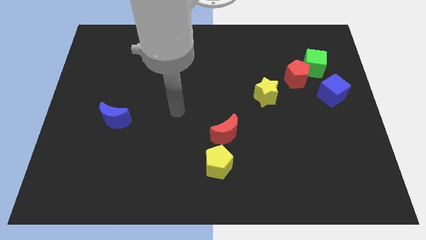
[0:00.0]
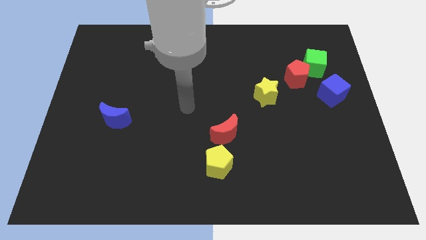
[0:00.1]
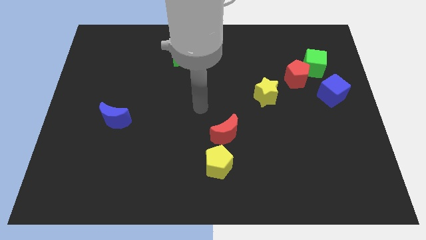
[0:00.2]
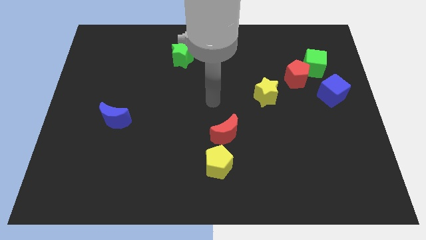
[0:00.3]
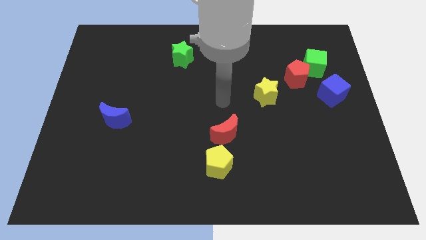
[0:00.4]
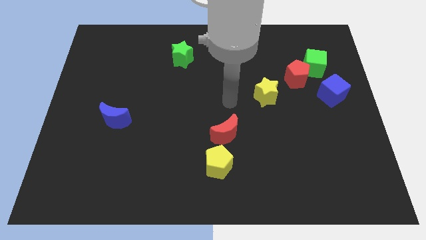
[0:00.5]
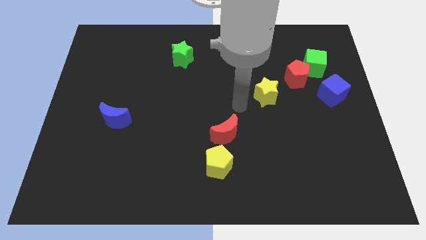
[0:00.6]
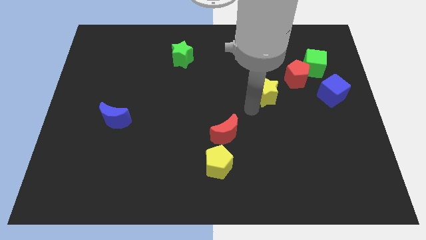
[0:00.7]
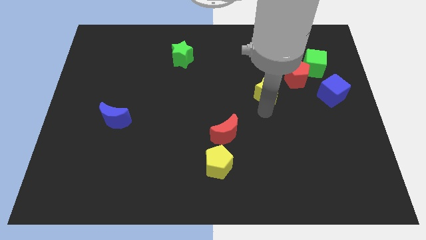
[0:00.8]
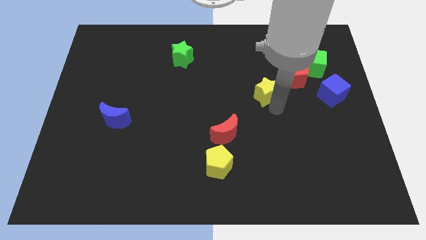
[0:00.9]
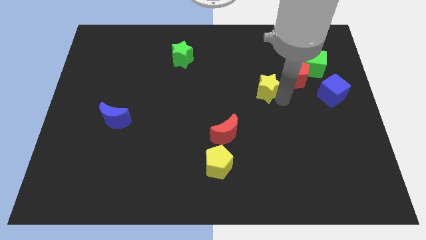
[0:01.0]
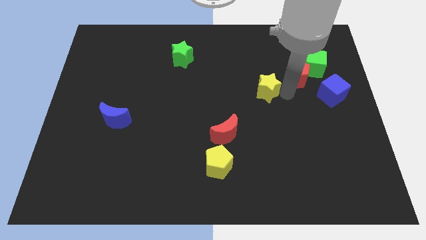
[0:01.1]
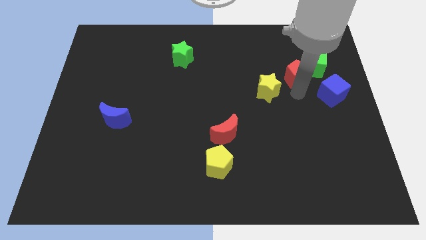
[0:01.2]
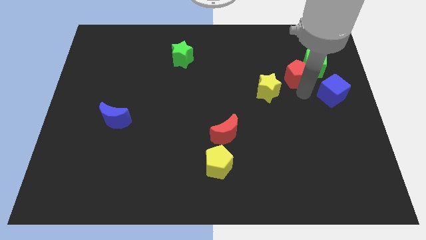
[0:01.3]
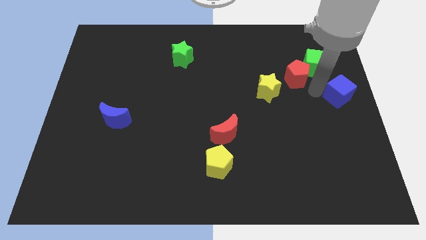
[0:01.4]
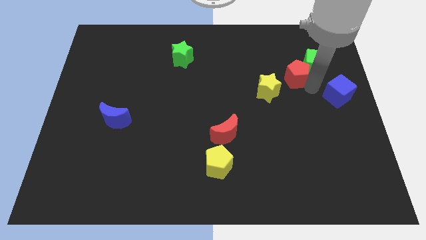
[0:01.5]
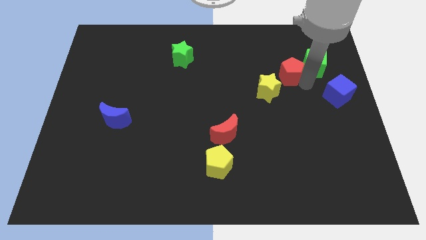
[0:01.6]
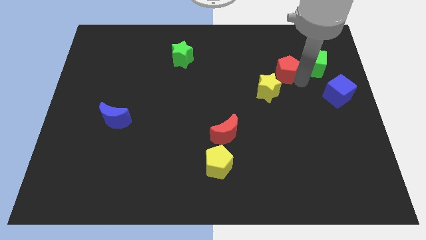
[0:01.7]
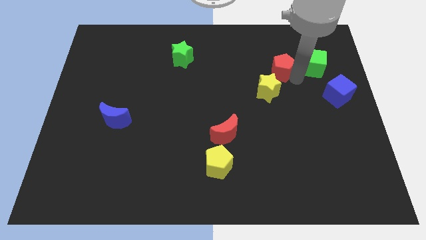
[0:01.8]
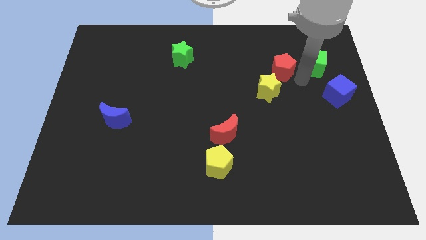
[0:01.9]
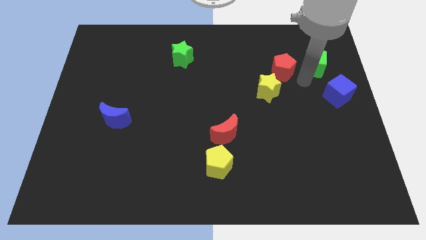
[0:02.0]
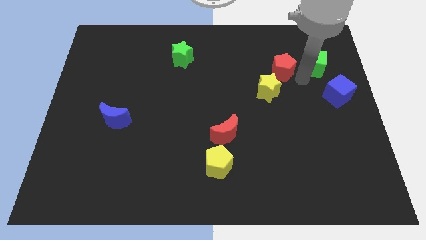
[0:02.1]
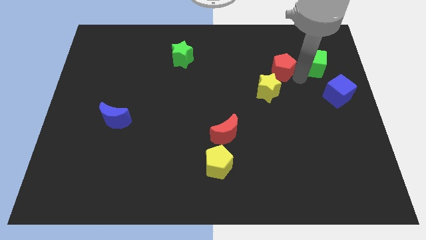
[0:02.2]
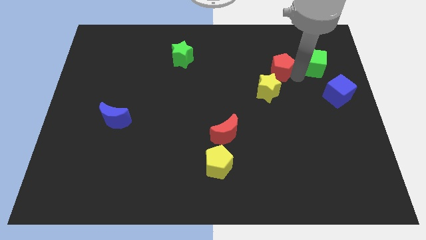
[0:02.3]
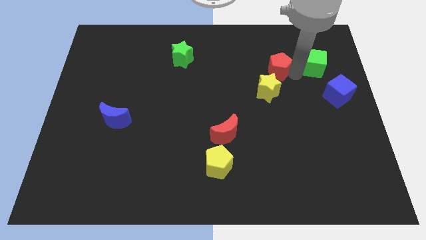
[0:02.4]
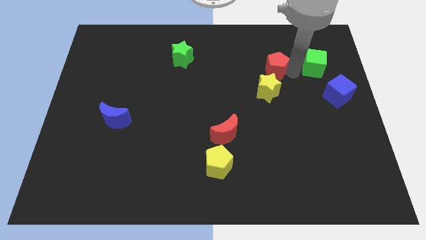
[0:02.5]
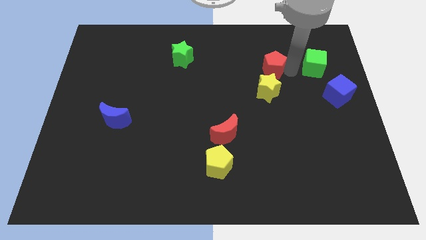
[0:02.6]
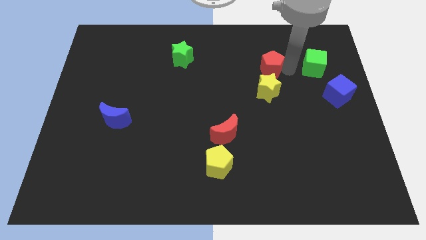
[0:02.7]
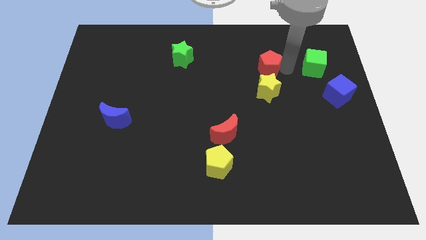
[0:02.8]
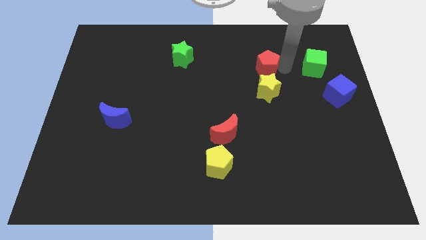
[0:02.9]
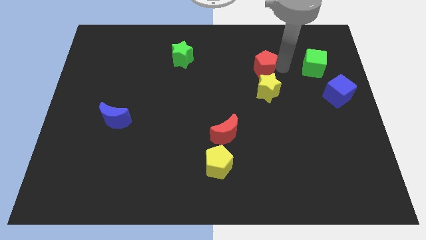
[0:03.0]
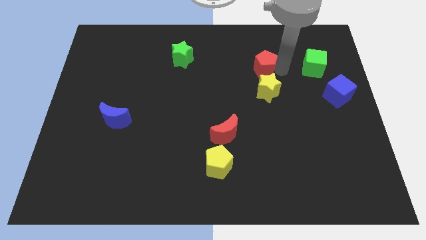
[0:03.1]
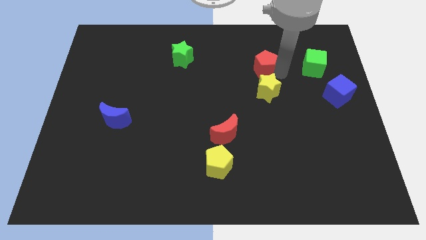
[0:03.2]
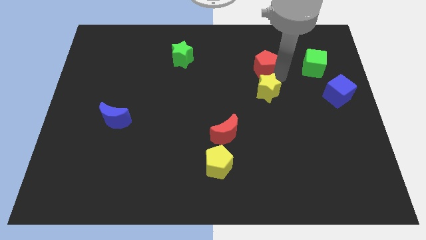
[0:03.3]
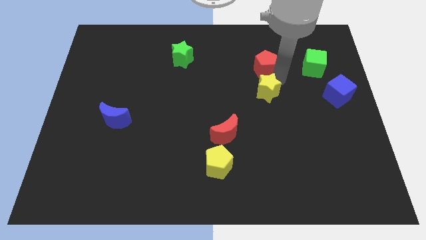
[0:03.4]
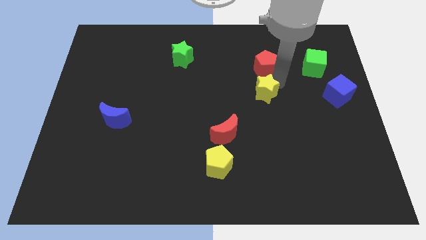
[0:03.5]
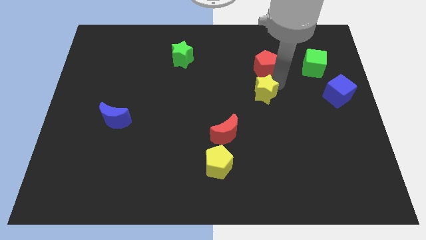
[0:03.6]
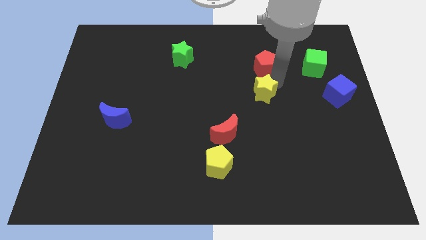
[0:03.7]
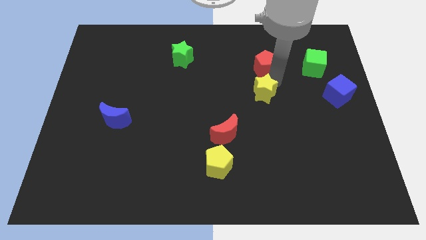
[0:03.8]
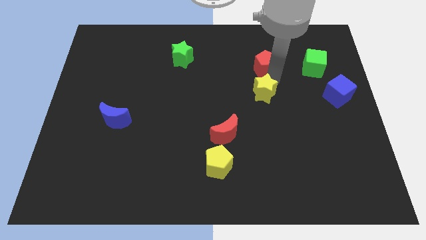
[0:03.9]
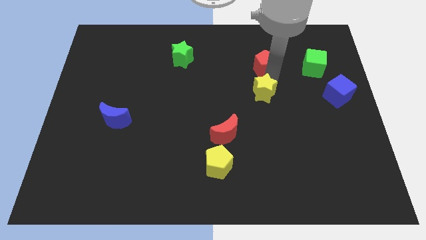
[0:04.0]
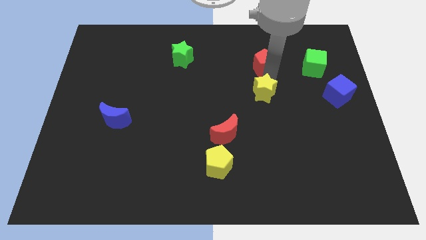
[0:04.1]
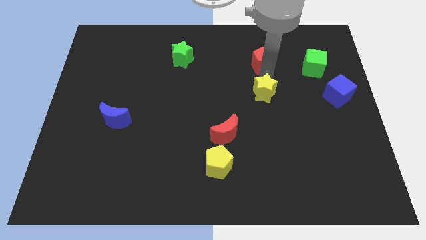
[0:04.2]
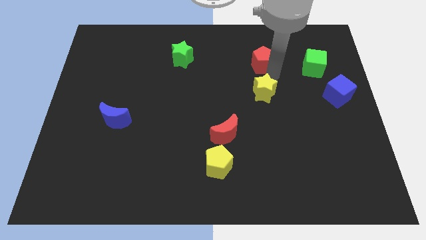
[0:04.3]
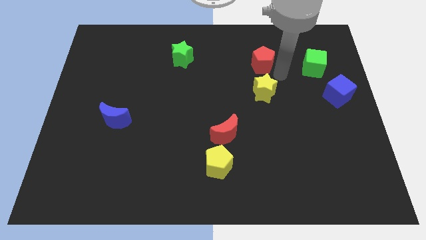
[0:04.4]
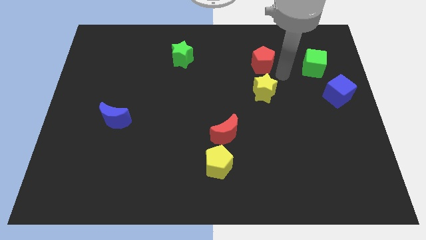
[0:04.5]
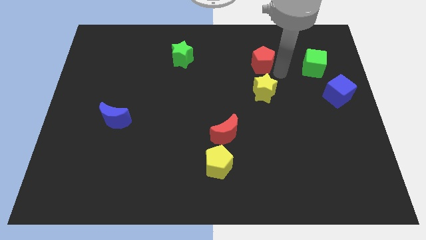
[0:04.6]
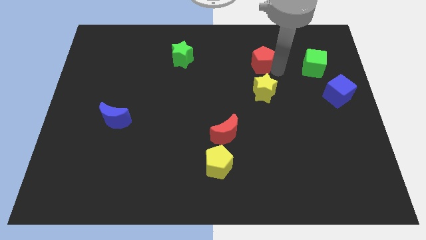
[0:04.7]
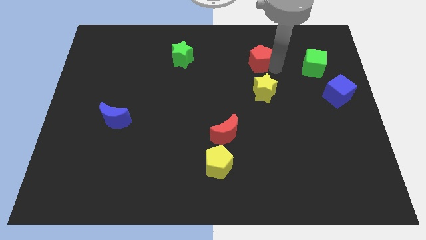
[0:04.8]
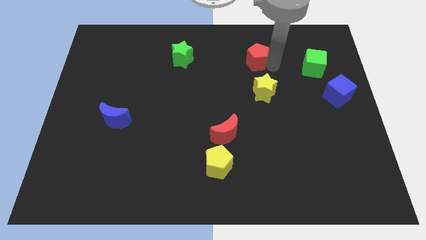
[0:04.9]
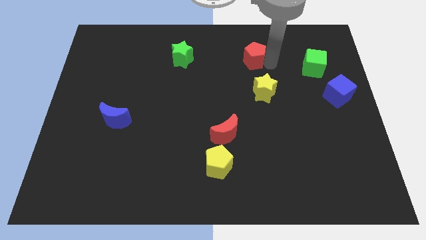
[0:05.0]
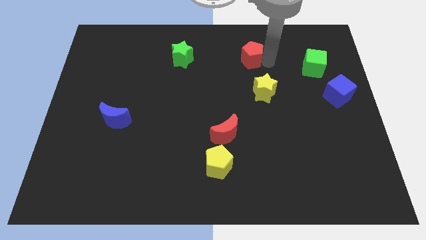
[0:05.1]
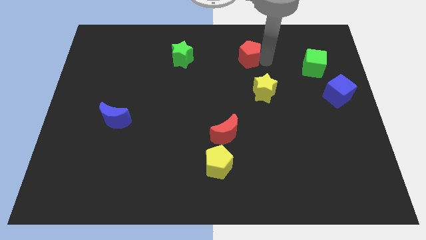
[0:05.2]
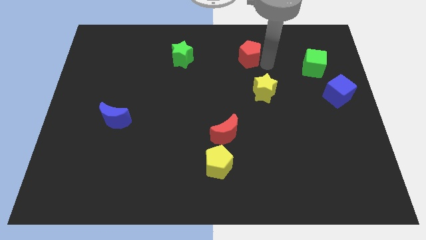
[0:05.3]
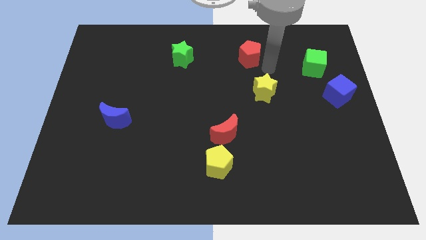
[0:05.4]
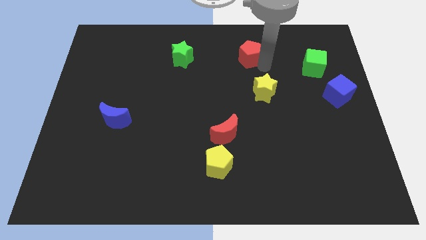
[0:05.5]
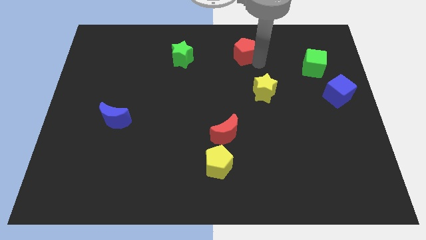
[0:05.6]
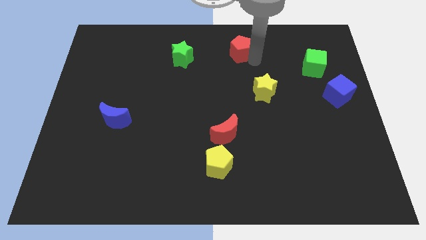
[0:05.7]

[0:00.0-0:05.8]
put the red pentagon to the towards your base

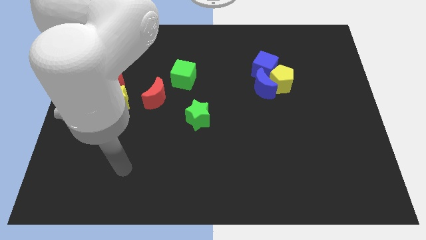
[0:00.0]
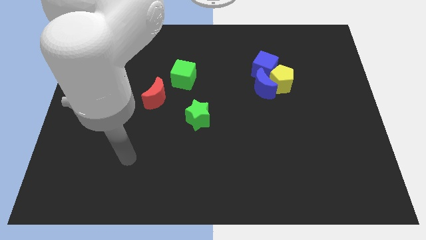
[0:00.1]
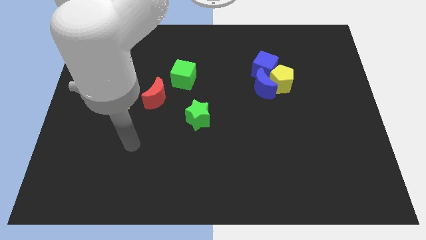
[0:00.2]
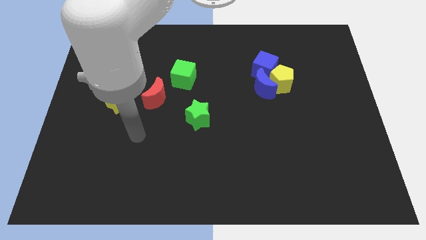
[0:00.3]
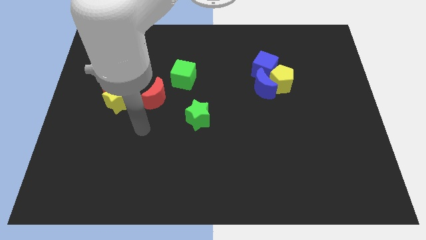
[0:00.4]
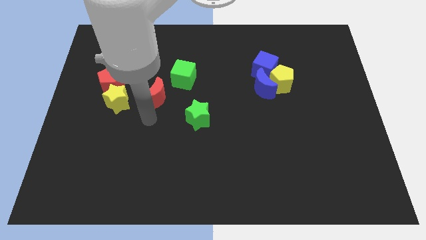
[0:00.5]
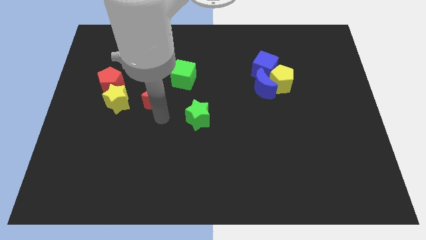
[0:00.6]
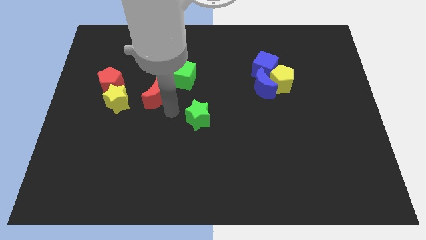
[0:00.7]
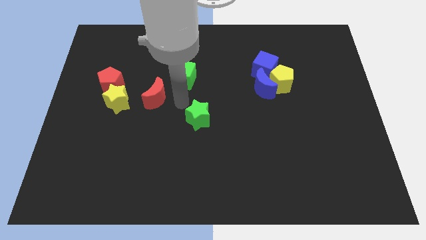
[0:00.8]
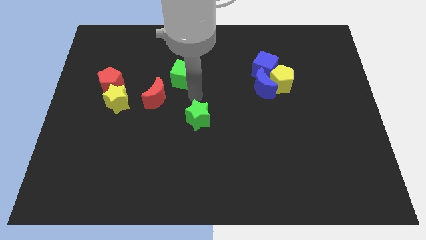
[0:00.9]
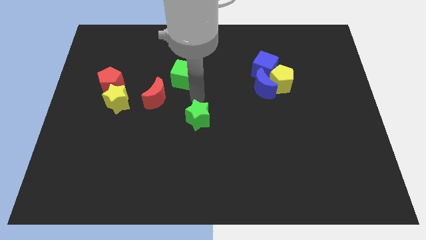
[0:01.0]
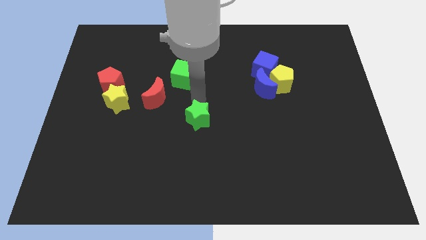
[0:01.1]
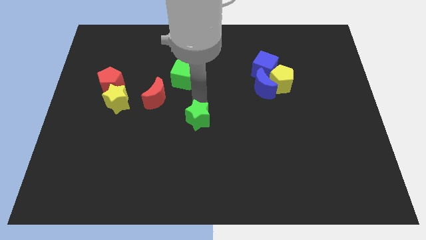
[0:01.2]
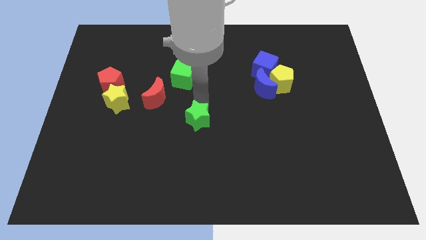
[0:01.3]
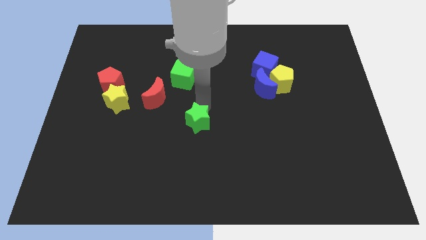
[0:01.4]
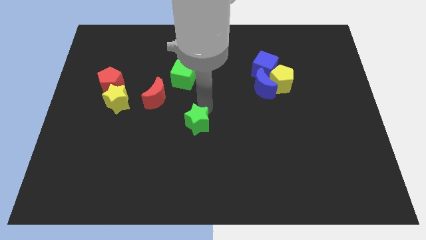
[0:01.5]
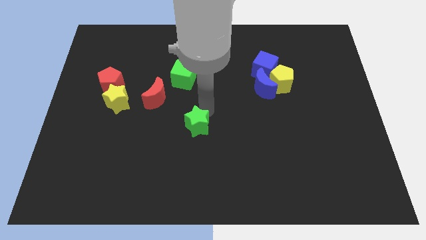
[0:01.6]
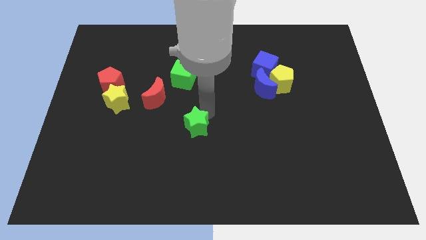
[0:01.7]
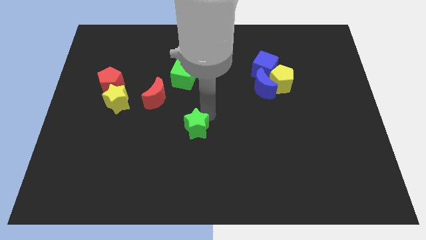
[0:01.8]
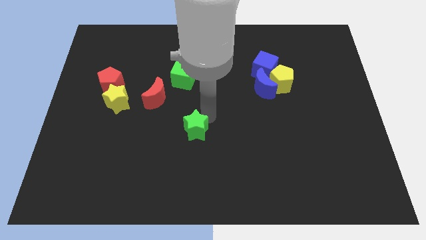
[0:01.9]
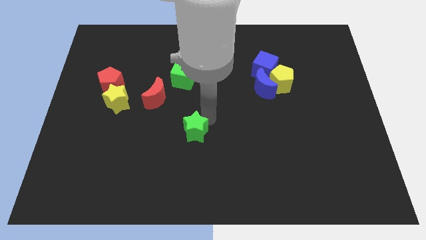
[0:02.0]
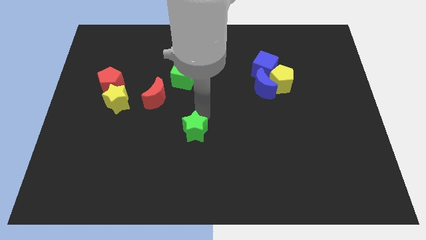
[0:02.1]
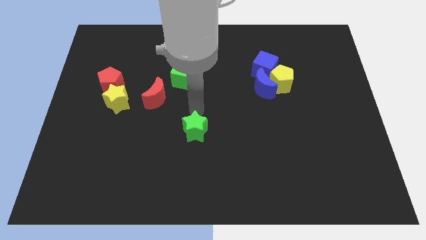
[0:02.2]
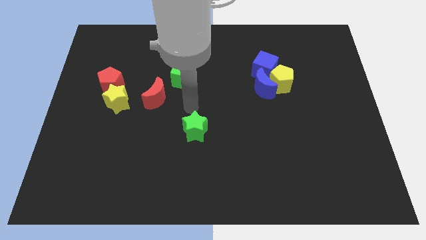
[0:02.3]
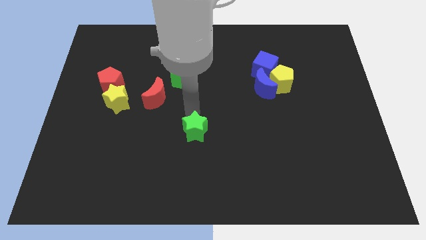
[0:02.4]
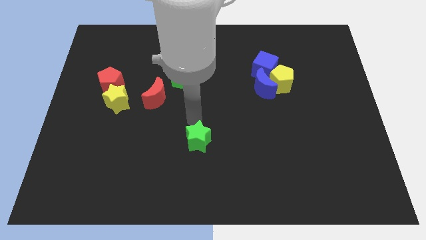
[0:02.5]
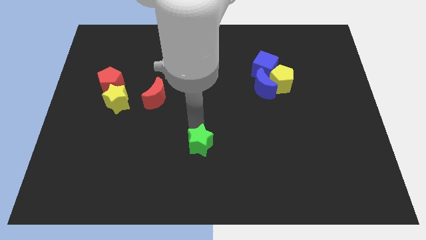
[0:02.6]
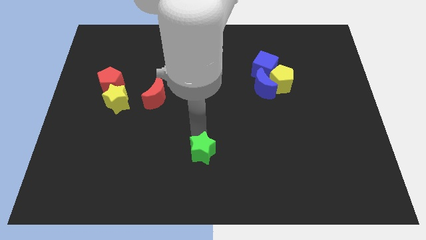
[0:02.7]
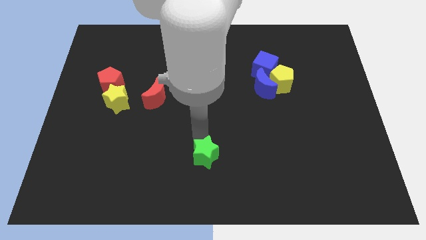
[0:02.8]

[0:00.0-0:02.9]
push the green star to the bottom side
